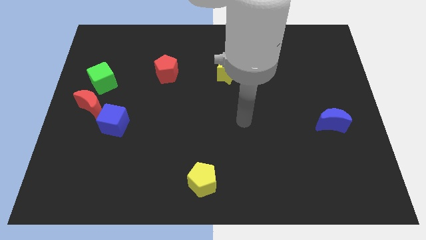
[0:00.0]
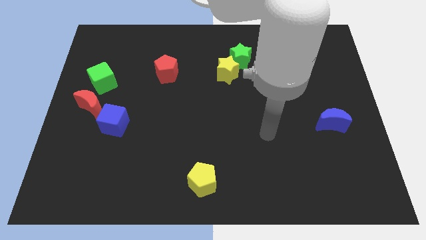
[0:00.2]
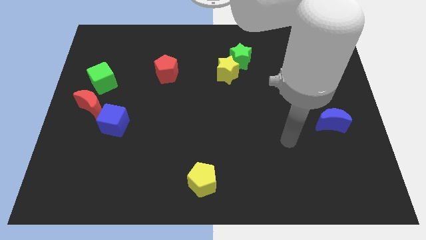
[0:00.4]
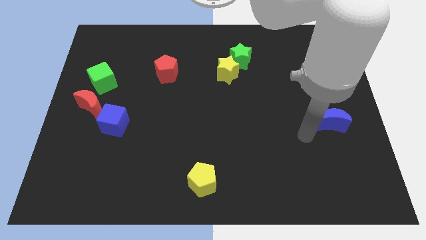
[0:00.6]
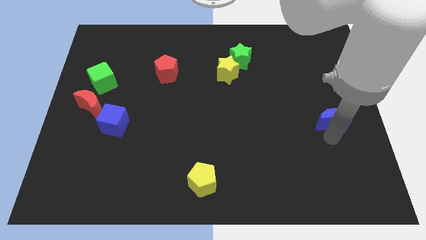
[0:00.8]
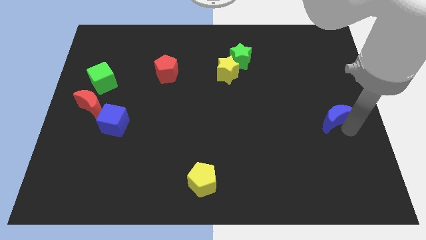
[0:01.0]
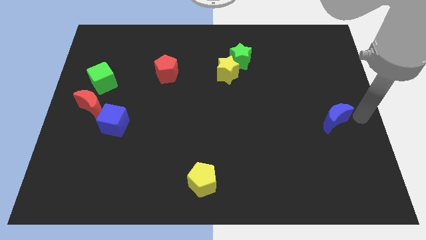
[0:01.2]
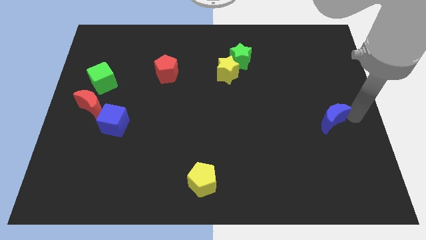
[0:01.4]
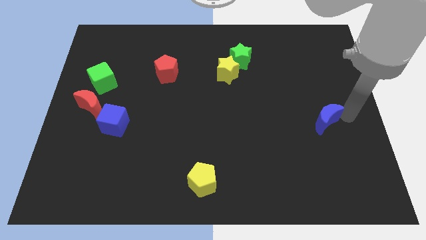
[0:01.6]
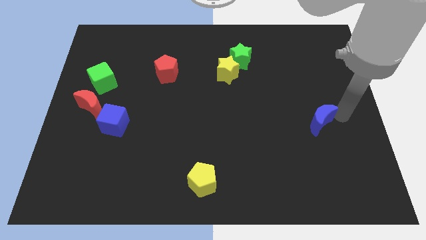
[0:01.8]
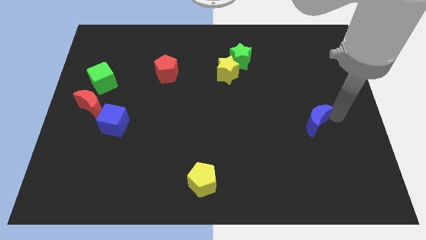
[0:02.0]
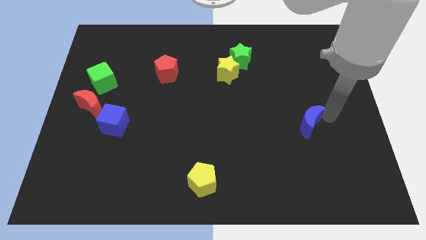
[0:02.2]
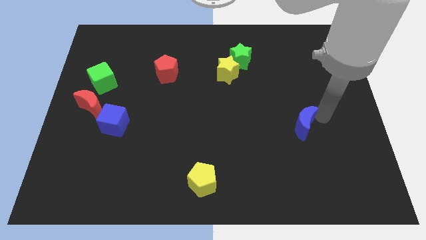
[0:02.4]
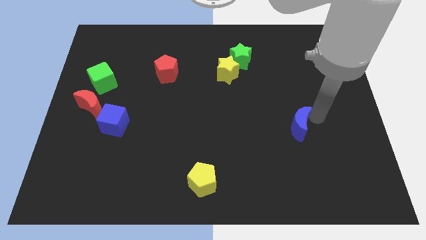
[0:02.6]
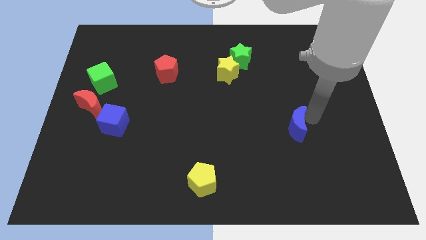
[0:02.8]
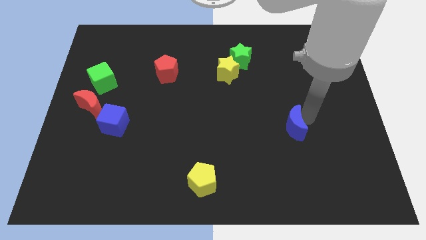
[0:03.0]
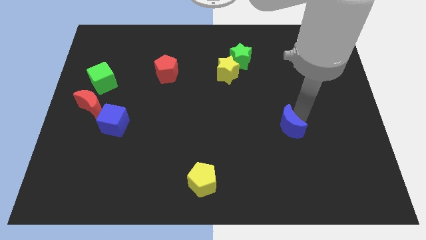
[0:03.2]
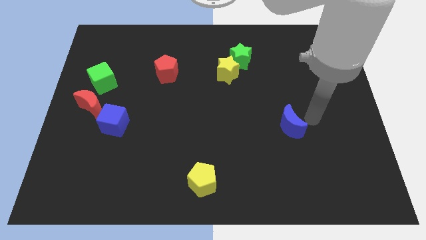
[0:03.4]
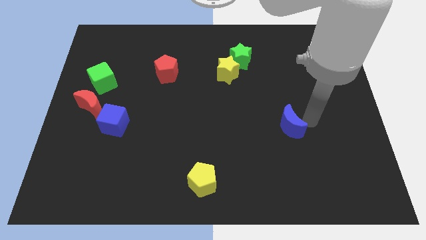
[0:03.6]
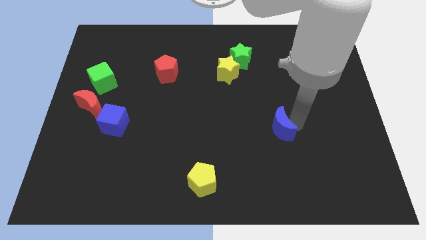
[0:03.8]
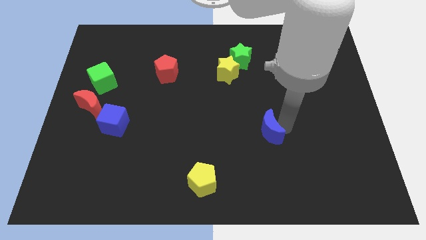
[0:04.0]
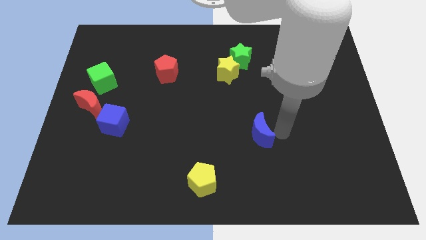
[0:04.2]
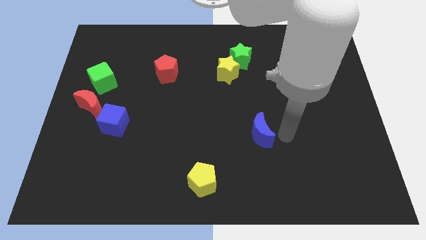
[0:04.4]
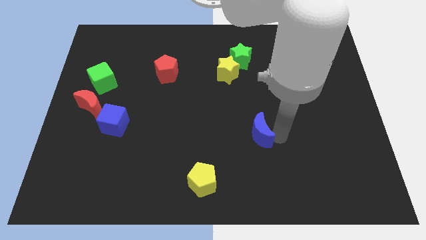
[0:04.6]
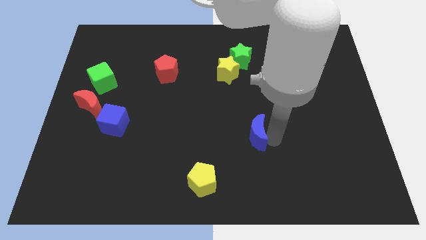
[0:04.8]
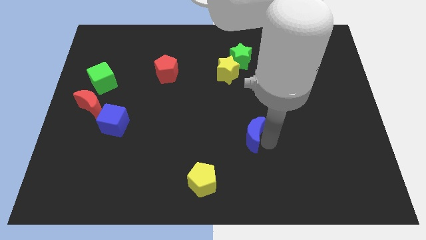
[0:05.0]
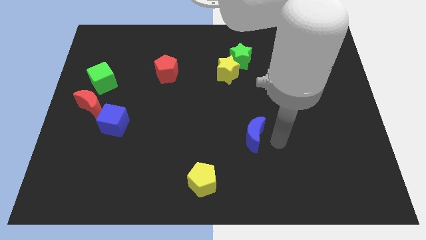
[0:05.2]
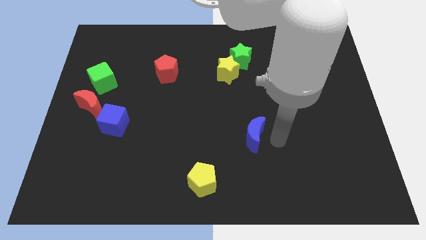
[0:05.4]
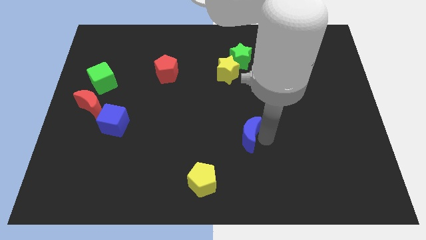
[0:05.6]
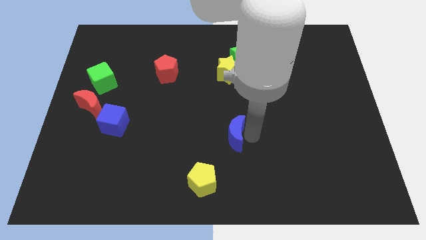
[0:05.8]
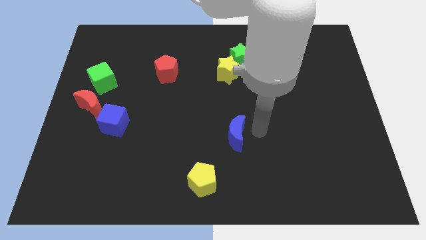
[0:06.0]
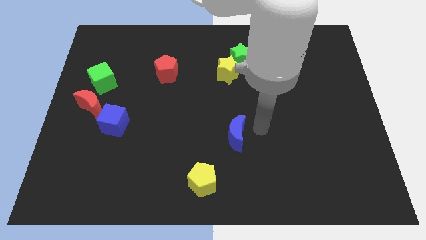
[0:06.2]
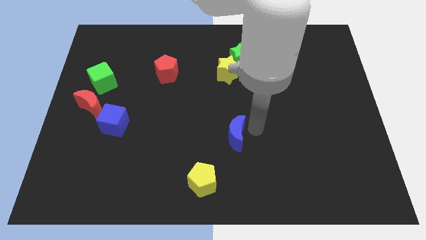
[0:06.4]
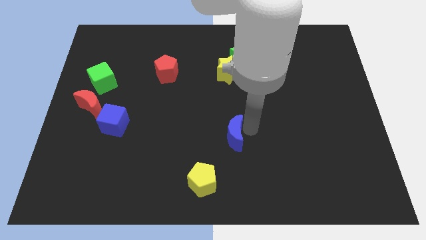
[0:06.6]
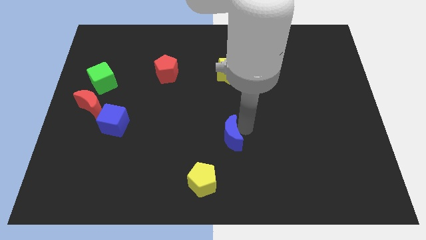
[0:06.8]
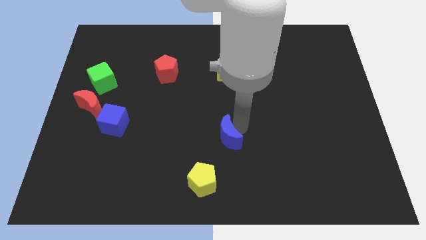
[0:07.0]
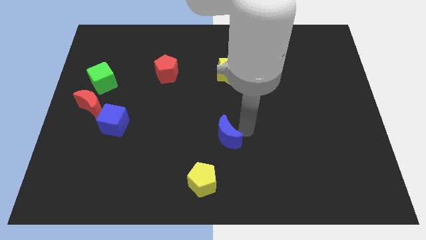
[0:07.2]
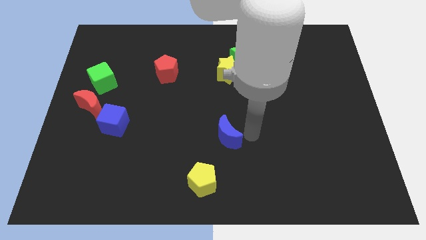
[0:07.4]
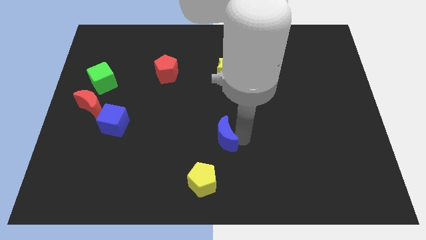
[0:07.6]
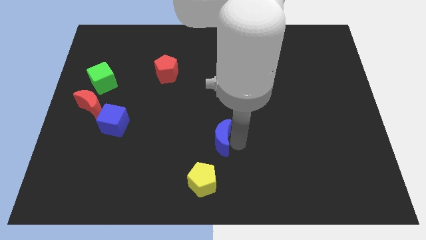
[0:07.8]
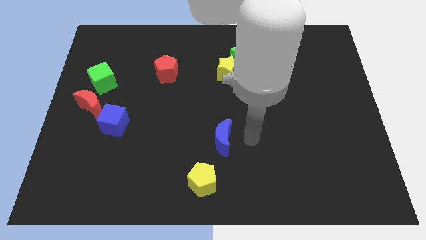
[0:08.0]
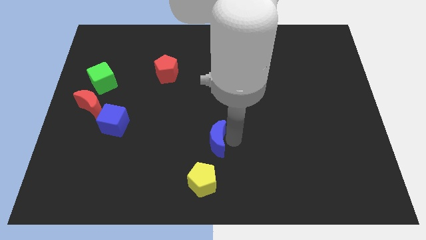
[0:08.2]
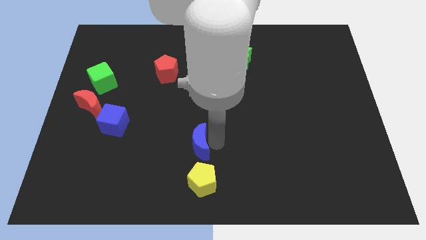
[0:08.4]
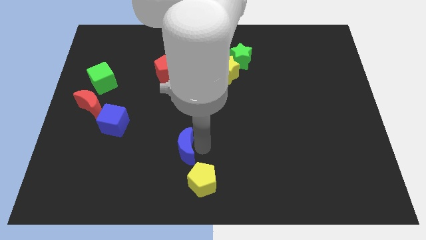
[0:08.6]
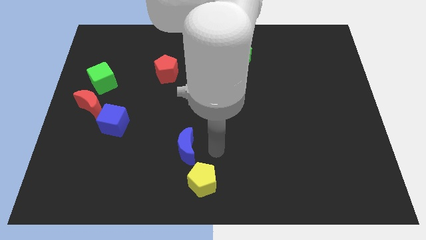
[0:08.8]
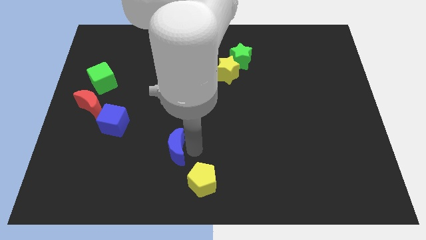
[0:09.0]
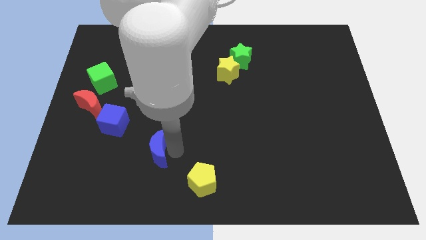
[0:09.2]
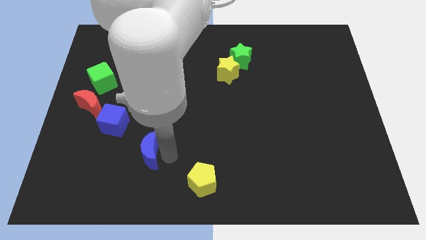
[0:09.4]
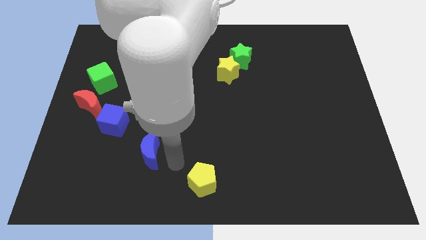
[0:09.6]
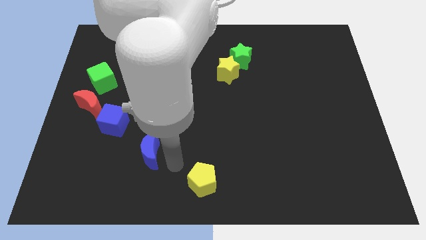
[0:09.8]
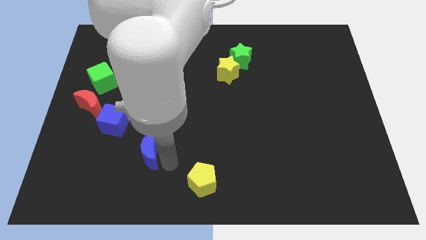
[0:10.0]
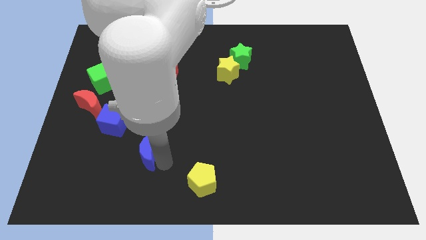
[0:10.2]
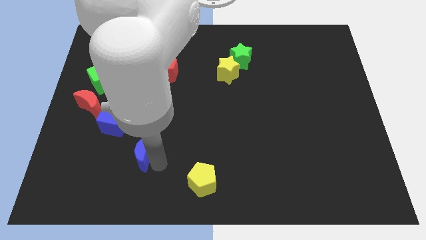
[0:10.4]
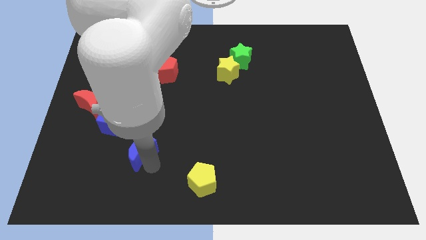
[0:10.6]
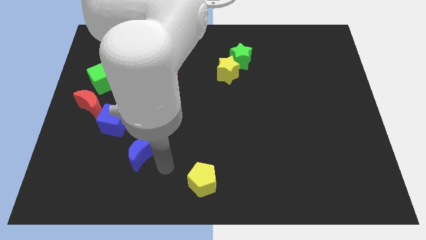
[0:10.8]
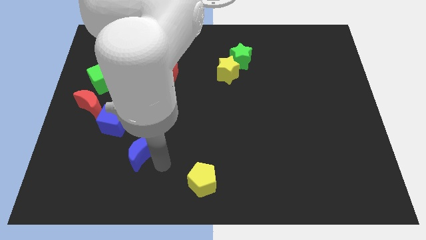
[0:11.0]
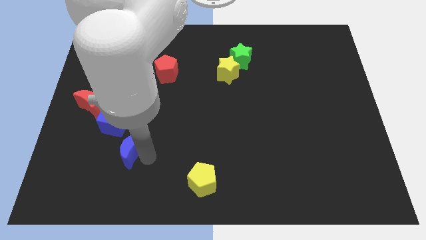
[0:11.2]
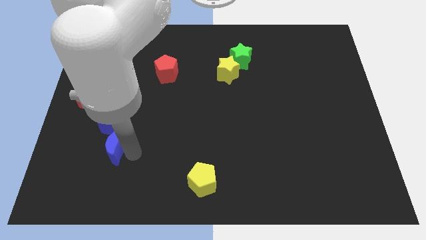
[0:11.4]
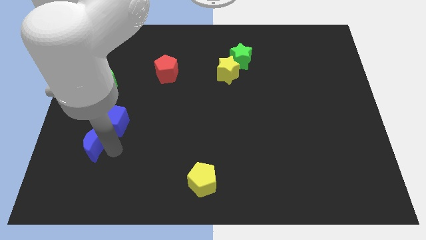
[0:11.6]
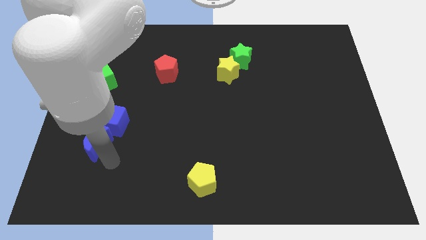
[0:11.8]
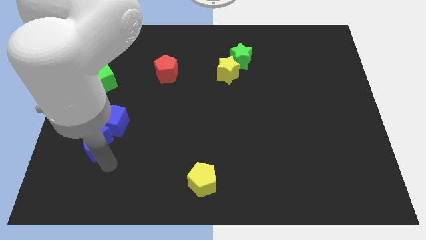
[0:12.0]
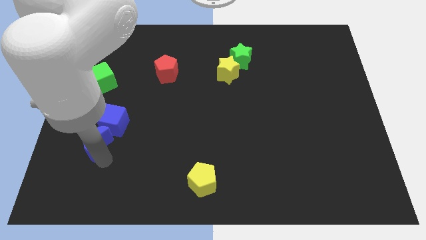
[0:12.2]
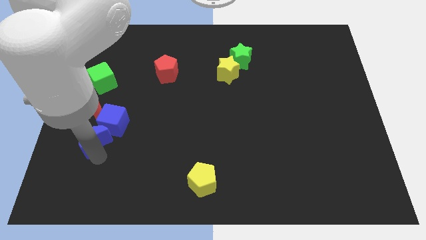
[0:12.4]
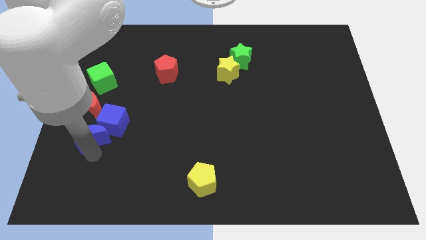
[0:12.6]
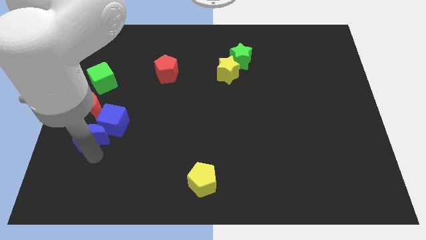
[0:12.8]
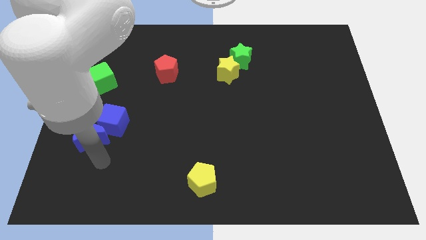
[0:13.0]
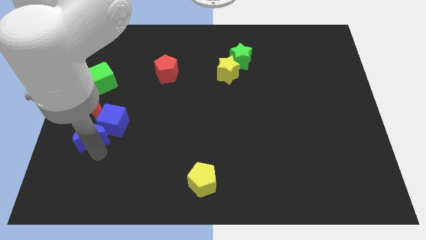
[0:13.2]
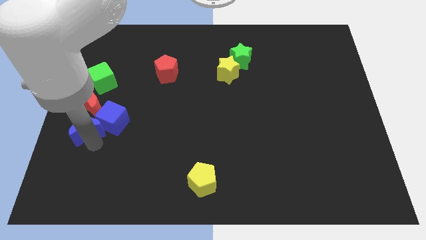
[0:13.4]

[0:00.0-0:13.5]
move the blue moon to the center left
